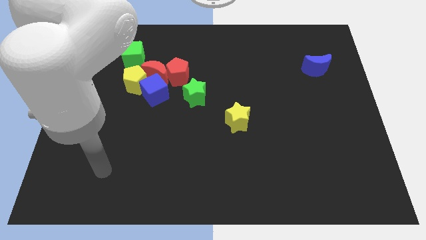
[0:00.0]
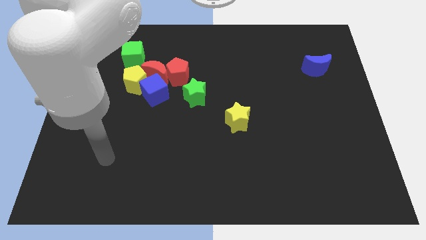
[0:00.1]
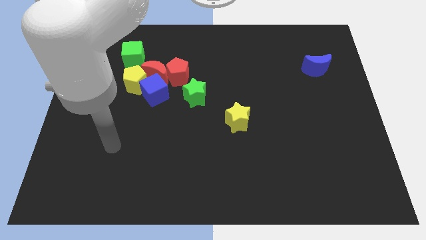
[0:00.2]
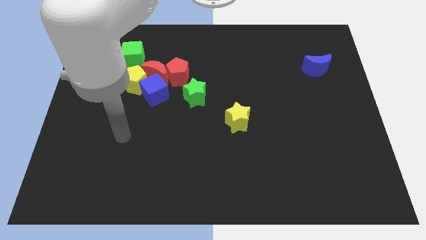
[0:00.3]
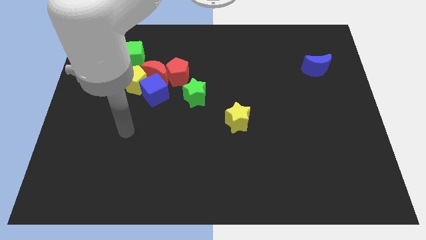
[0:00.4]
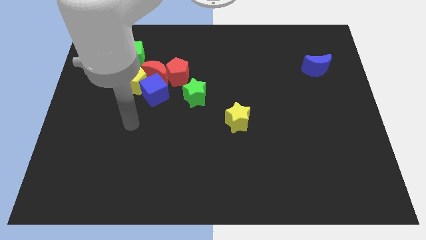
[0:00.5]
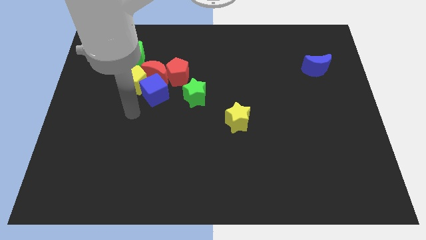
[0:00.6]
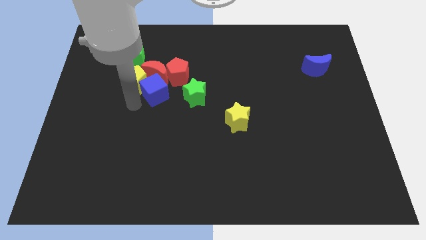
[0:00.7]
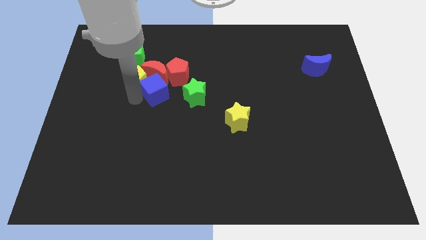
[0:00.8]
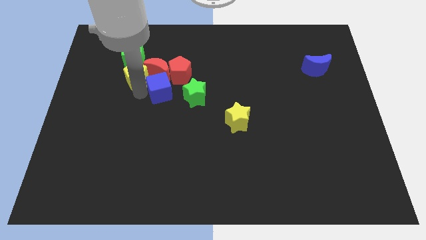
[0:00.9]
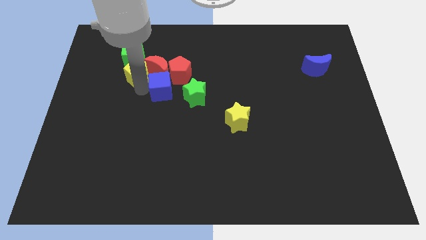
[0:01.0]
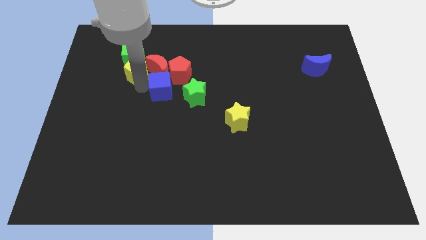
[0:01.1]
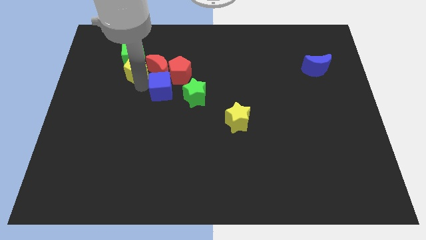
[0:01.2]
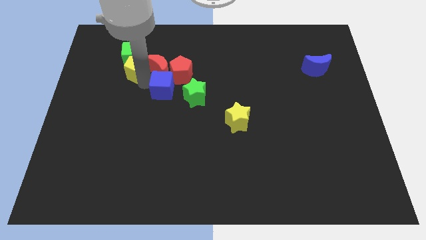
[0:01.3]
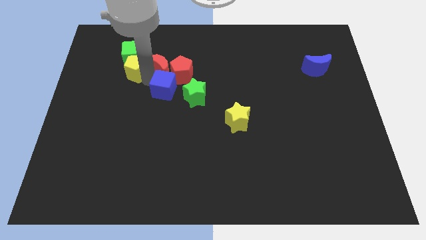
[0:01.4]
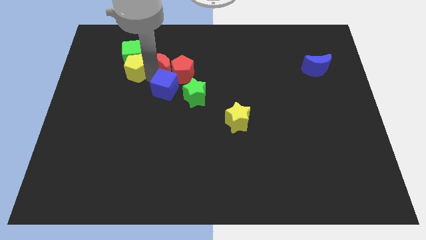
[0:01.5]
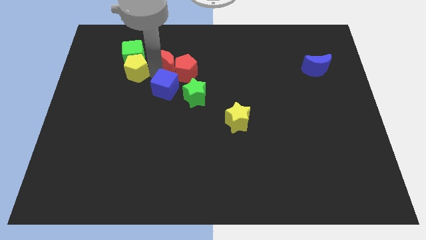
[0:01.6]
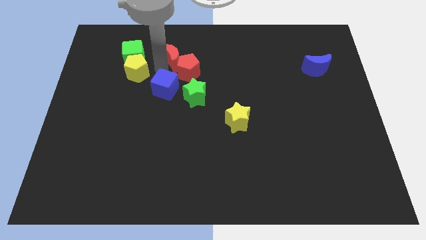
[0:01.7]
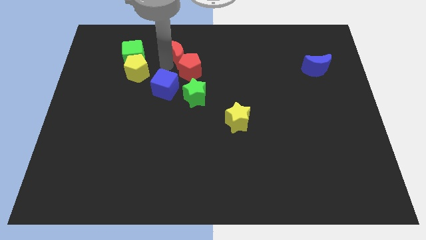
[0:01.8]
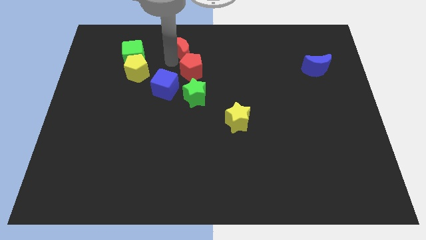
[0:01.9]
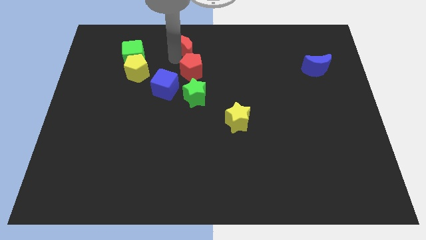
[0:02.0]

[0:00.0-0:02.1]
separate the red moon from the group of blocks

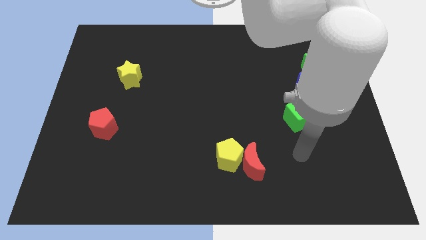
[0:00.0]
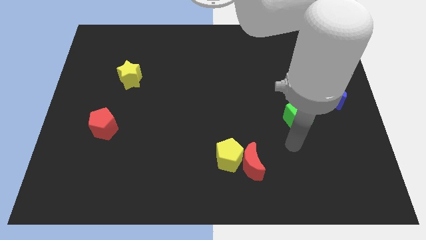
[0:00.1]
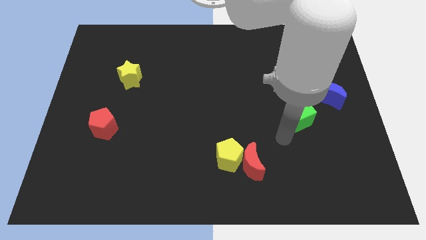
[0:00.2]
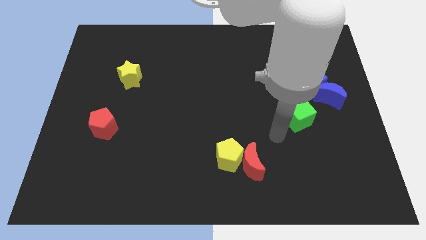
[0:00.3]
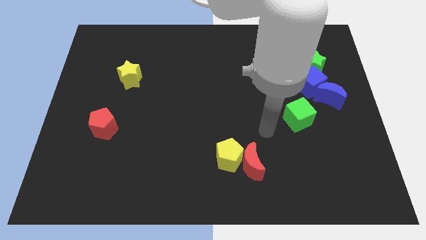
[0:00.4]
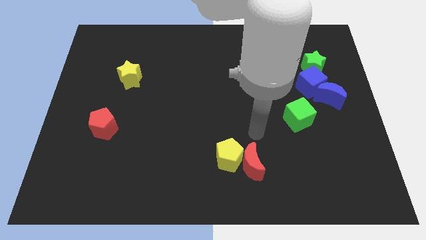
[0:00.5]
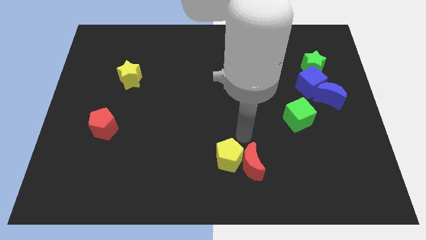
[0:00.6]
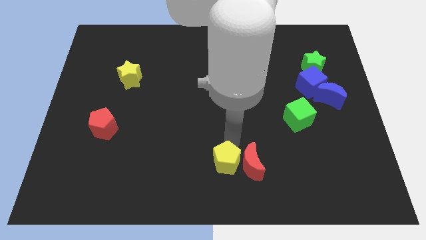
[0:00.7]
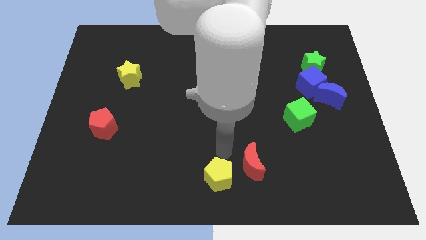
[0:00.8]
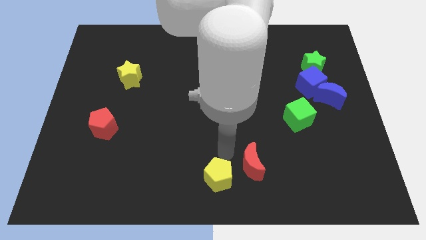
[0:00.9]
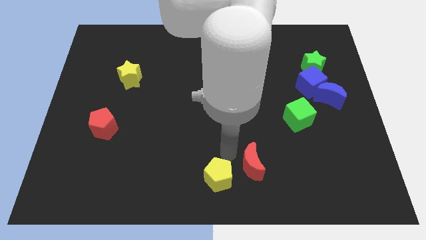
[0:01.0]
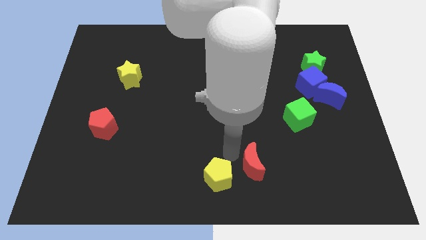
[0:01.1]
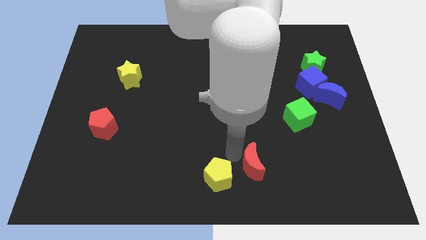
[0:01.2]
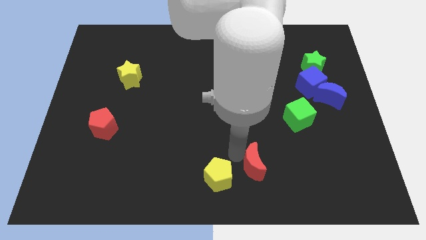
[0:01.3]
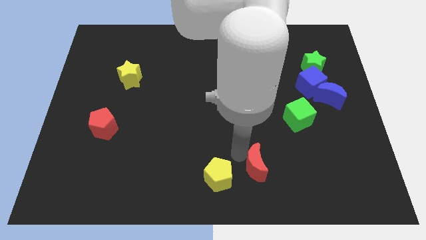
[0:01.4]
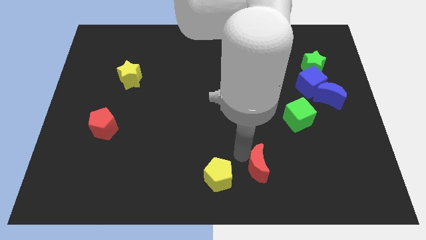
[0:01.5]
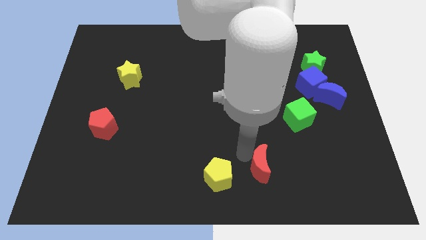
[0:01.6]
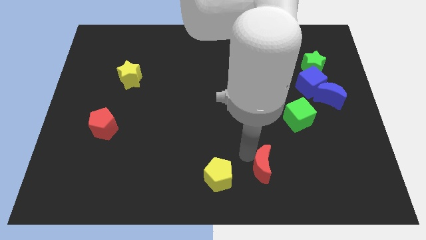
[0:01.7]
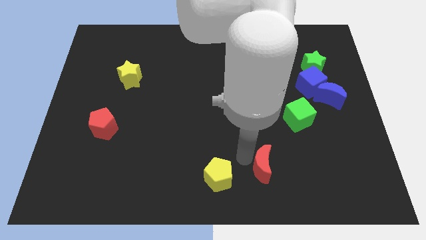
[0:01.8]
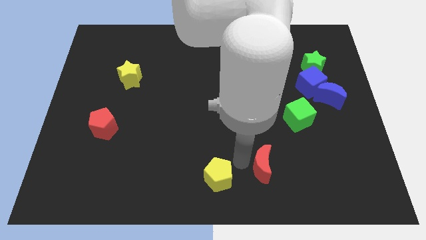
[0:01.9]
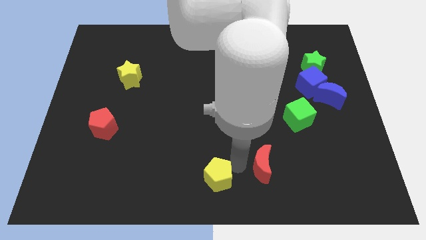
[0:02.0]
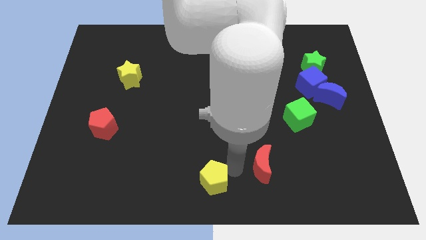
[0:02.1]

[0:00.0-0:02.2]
move the red moon away from the yellow pentagon

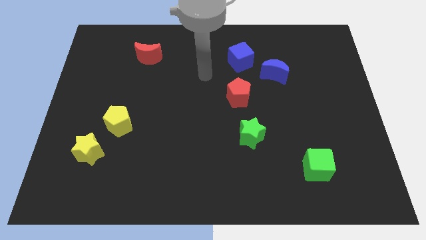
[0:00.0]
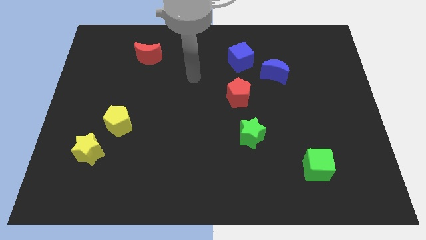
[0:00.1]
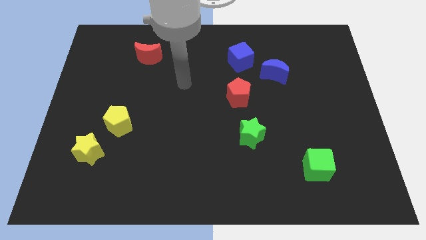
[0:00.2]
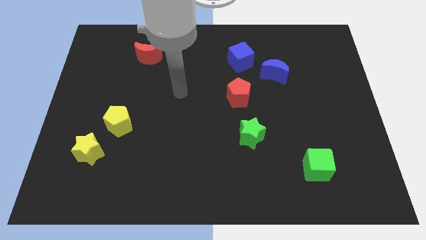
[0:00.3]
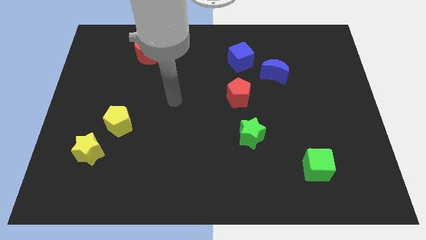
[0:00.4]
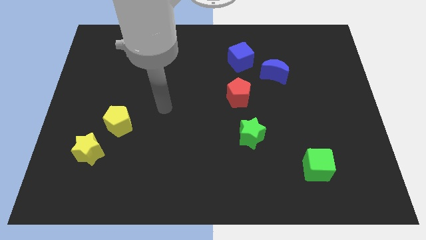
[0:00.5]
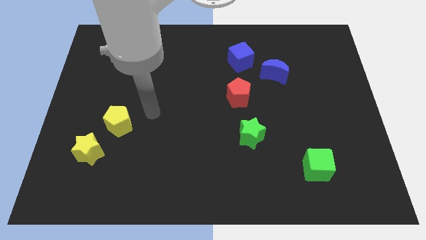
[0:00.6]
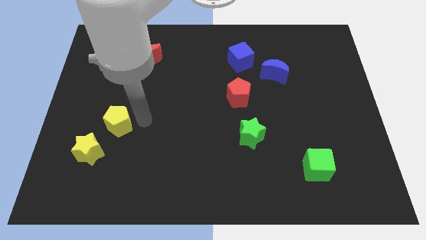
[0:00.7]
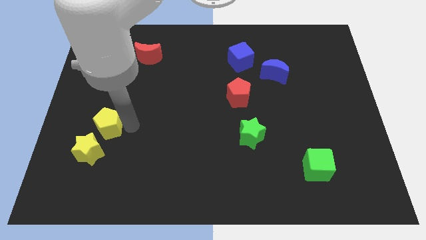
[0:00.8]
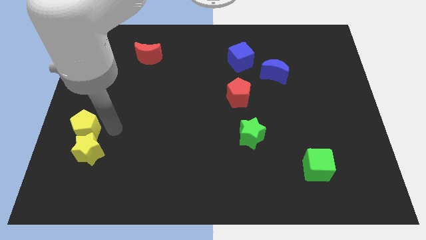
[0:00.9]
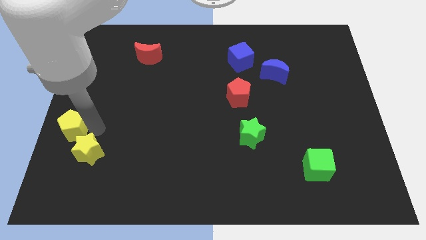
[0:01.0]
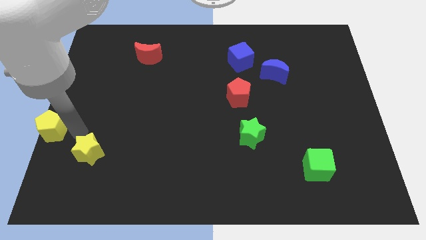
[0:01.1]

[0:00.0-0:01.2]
move the yellow star away from the yellow pentagon

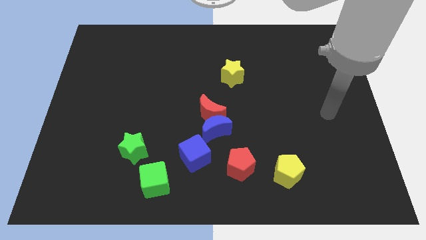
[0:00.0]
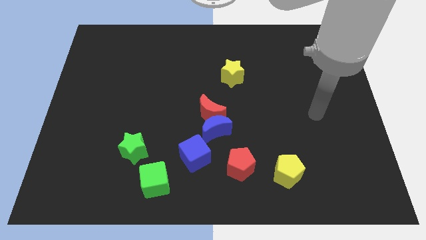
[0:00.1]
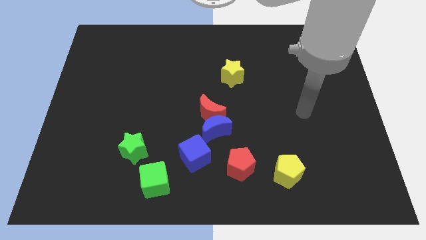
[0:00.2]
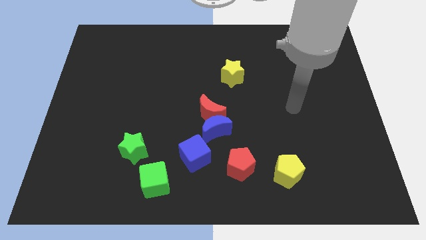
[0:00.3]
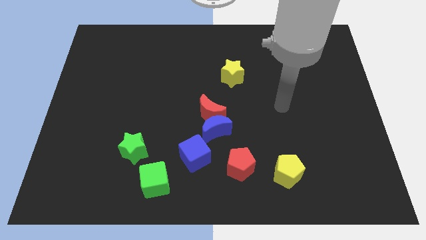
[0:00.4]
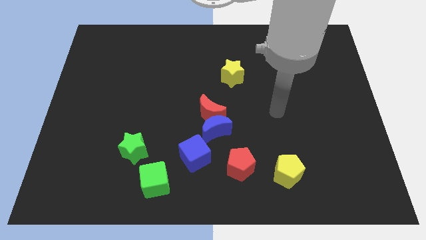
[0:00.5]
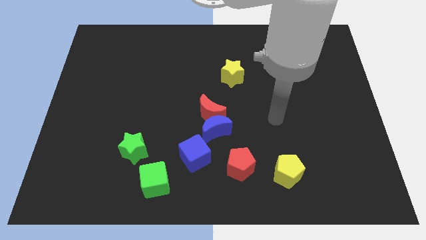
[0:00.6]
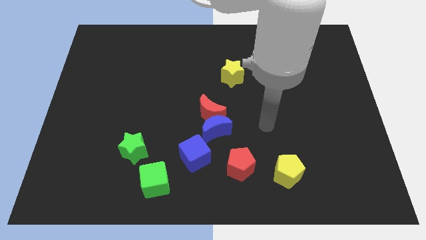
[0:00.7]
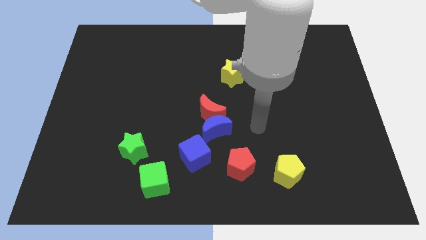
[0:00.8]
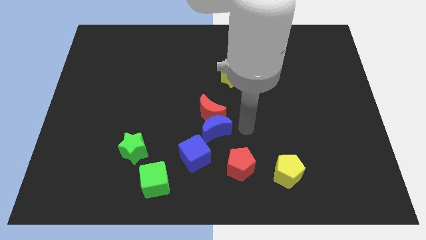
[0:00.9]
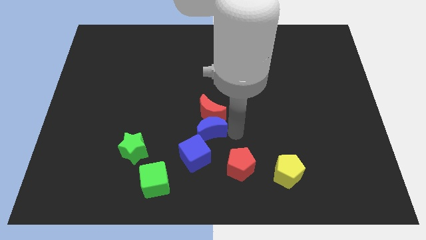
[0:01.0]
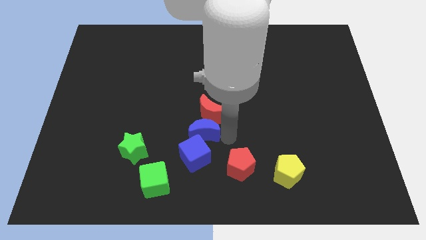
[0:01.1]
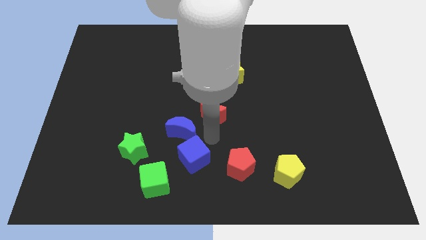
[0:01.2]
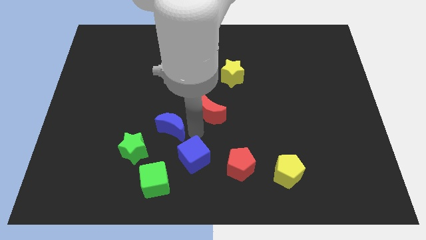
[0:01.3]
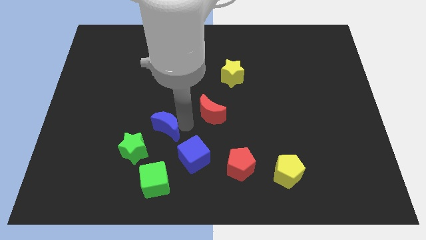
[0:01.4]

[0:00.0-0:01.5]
separate the red moon from the blue moon

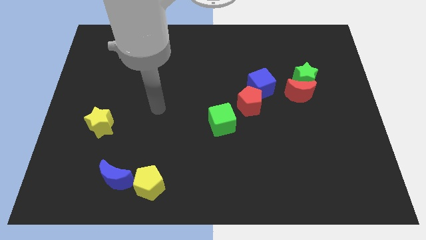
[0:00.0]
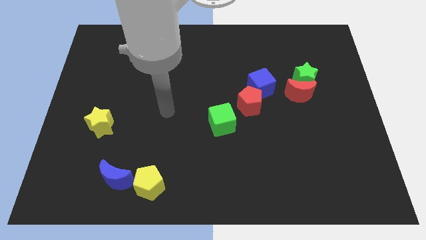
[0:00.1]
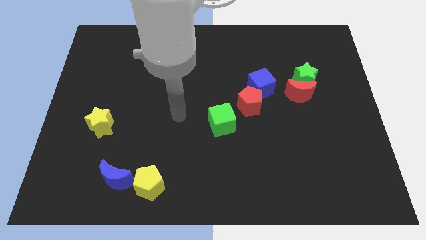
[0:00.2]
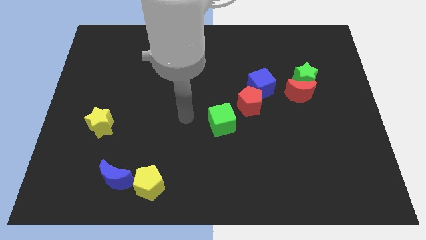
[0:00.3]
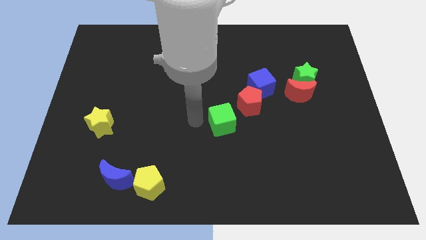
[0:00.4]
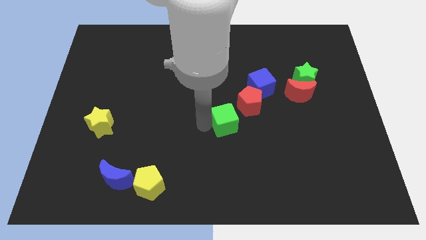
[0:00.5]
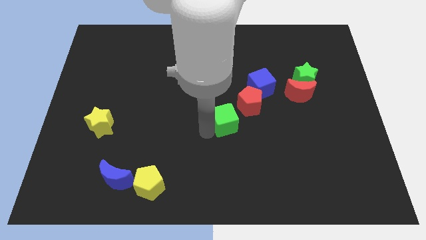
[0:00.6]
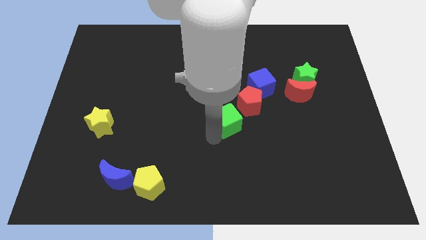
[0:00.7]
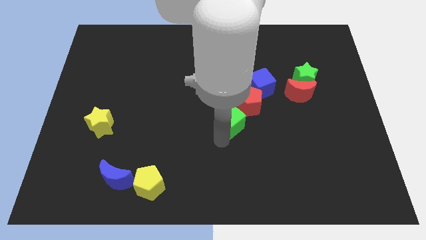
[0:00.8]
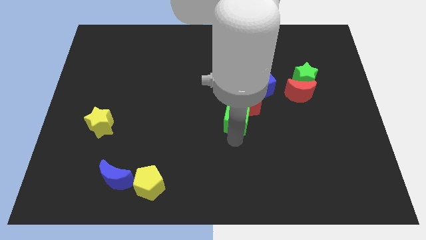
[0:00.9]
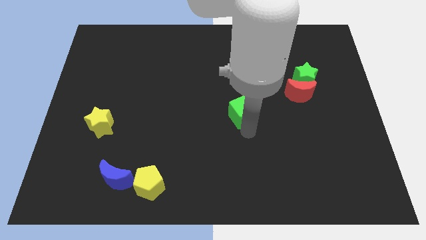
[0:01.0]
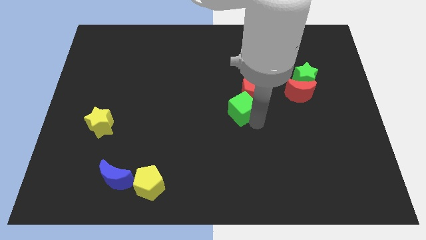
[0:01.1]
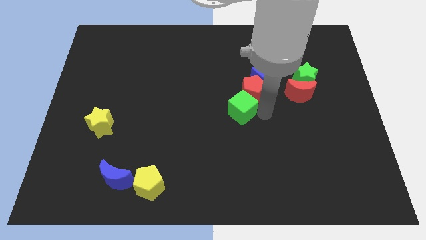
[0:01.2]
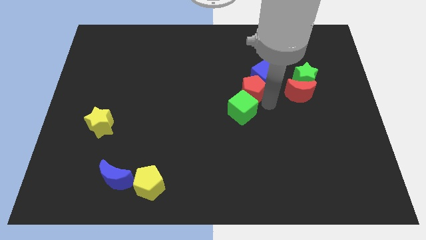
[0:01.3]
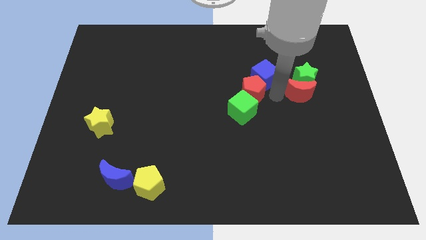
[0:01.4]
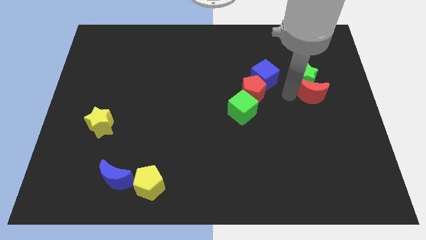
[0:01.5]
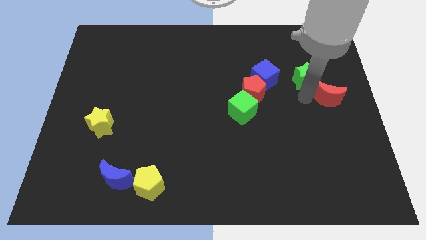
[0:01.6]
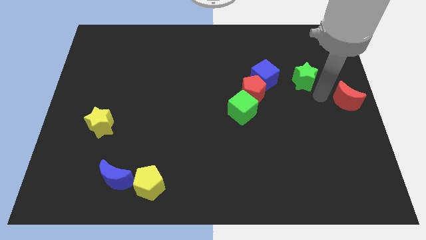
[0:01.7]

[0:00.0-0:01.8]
pull the green star apart from the red moon

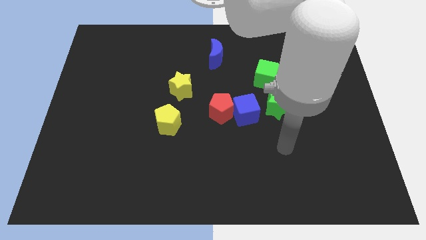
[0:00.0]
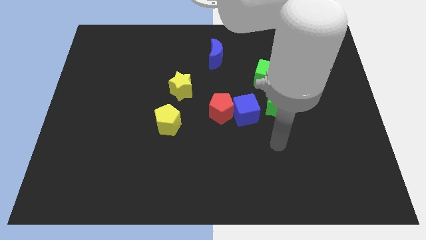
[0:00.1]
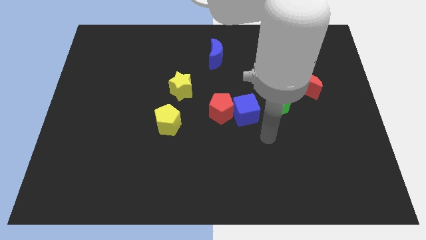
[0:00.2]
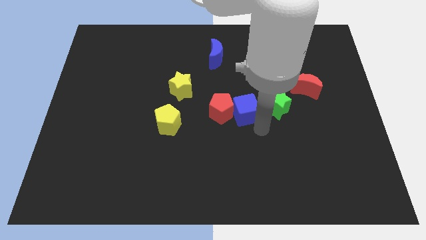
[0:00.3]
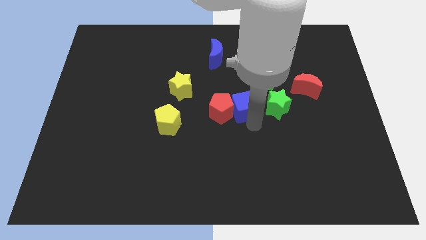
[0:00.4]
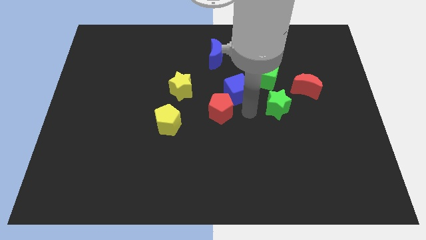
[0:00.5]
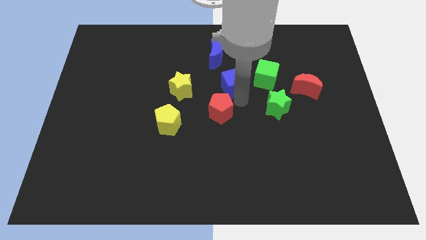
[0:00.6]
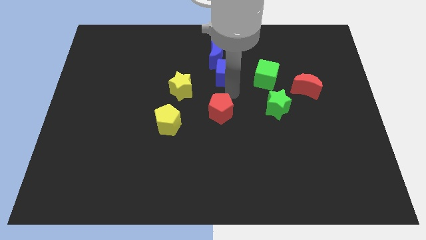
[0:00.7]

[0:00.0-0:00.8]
move the red pentagon away from the blue cube
